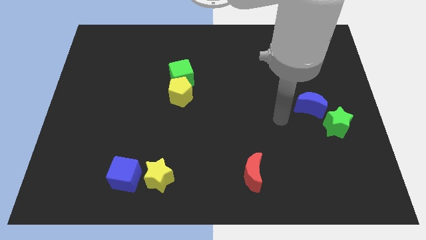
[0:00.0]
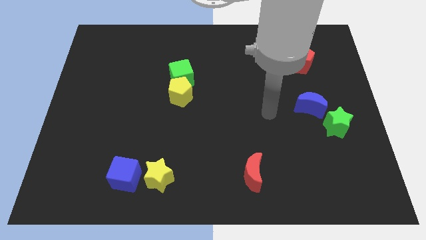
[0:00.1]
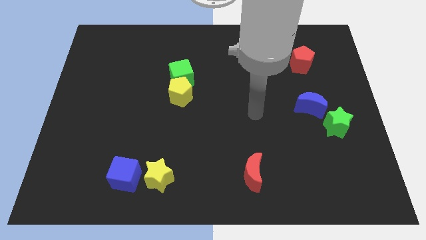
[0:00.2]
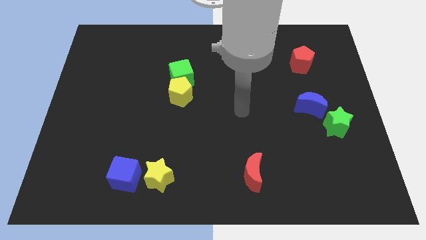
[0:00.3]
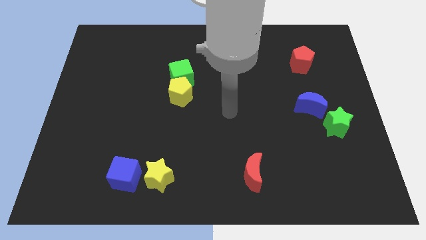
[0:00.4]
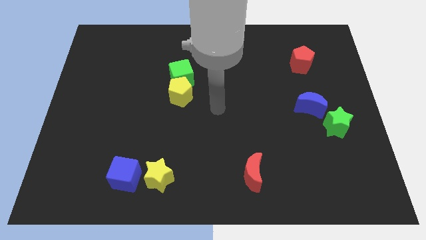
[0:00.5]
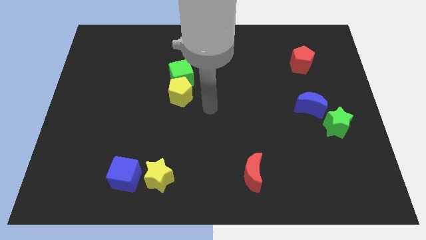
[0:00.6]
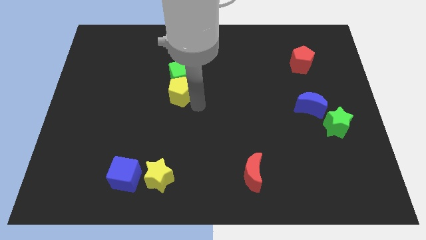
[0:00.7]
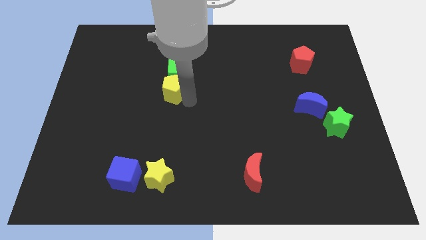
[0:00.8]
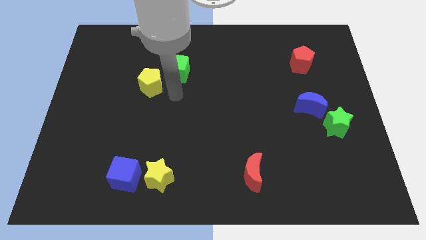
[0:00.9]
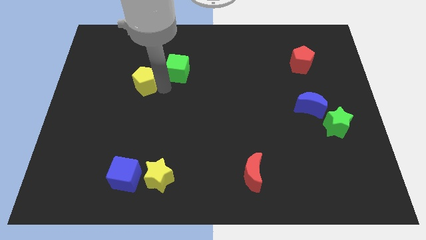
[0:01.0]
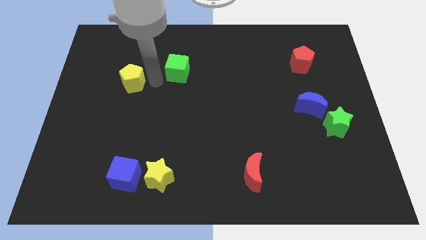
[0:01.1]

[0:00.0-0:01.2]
separate the green cube from the yellow pentagon

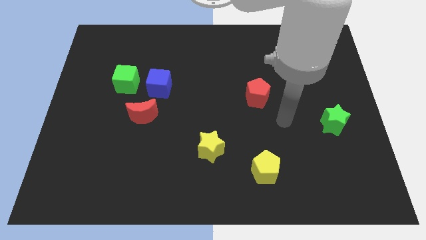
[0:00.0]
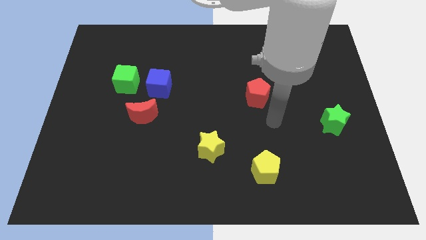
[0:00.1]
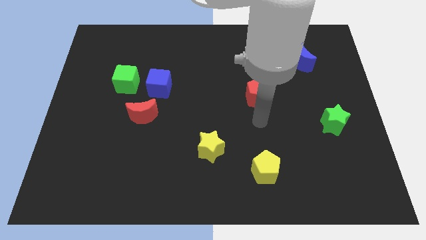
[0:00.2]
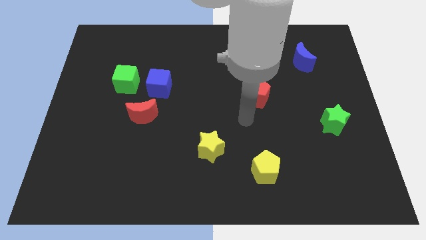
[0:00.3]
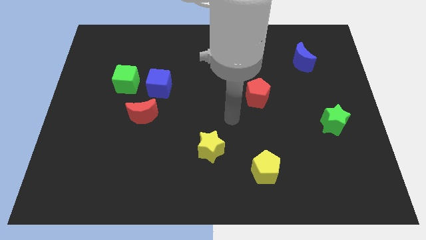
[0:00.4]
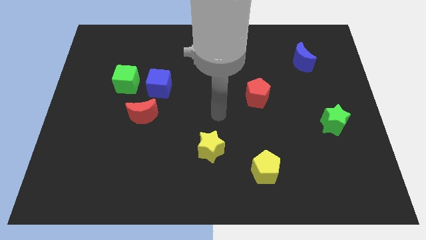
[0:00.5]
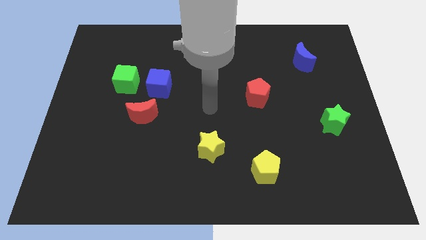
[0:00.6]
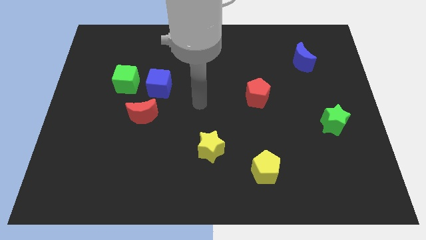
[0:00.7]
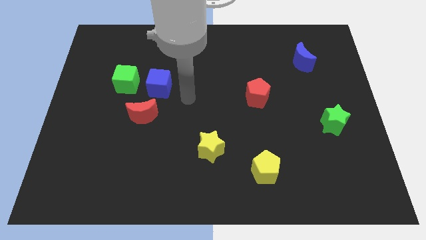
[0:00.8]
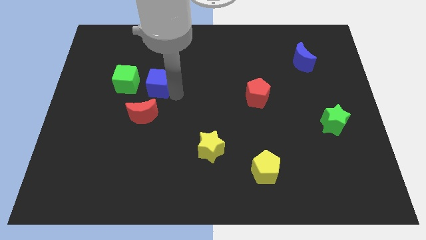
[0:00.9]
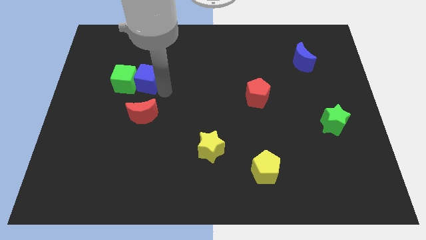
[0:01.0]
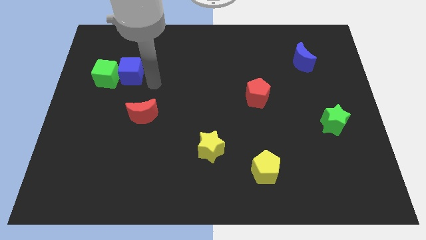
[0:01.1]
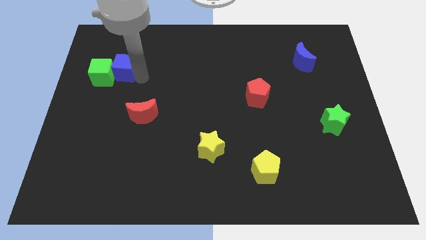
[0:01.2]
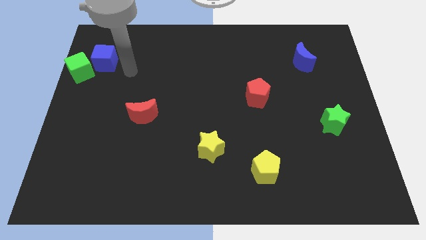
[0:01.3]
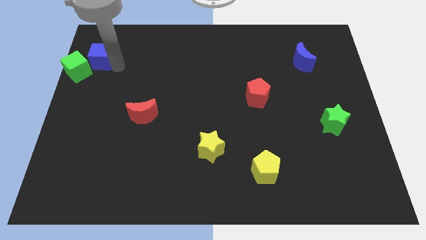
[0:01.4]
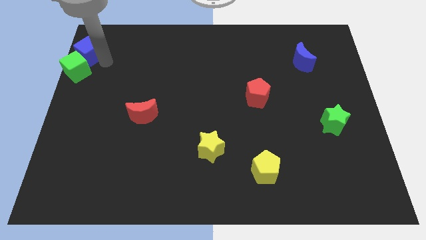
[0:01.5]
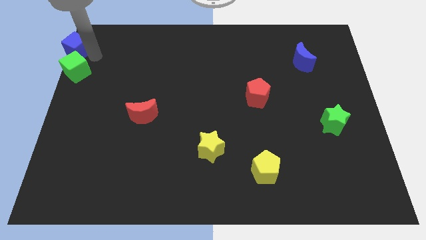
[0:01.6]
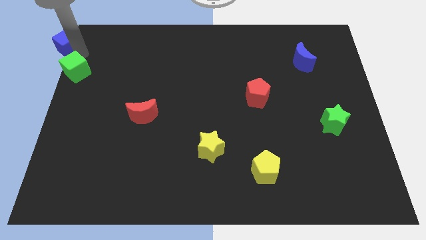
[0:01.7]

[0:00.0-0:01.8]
separate the green cube from the blue cube

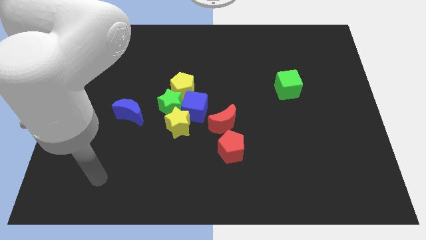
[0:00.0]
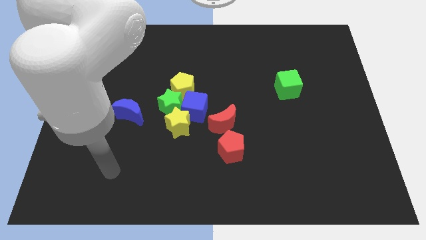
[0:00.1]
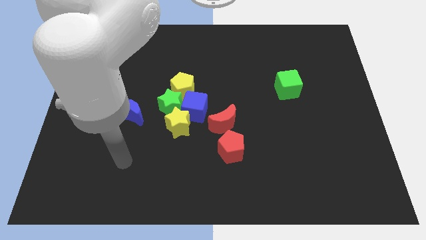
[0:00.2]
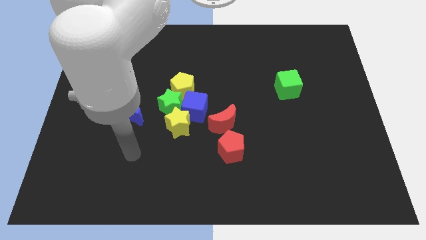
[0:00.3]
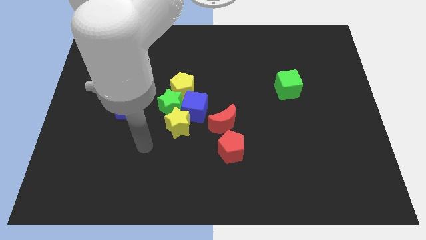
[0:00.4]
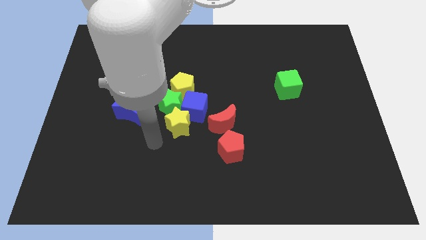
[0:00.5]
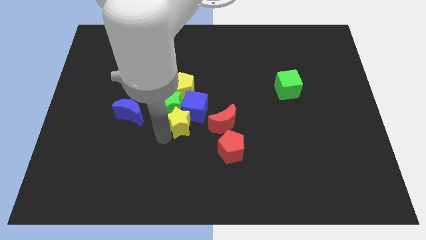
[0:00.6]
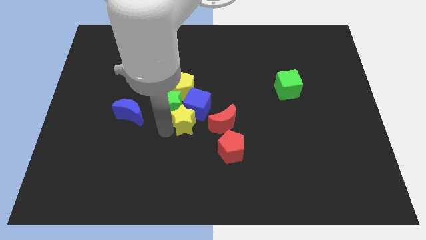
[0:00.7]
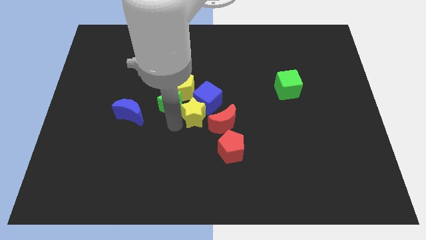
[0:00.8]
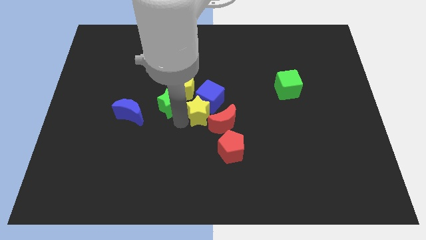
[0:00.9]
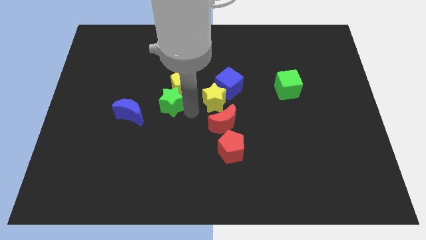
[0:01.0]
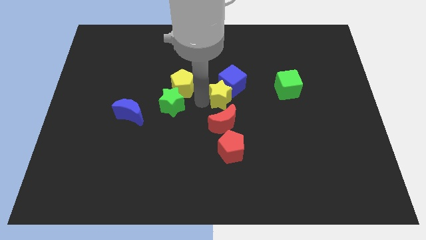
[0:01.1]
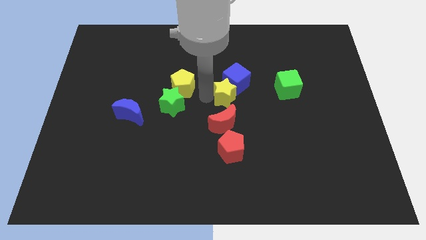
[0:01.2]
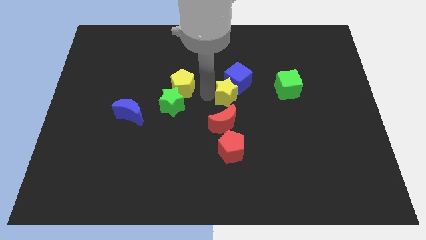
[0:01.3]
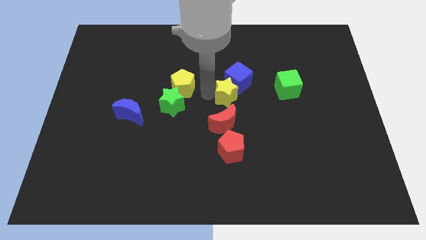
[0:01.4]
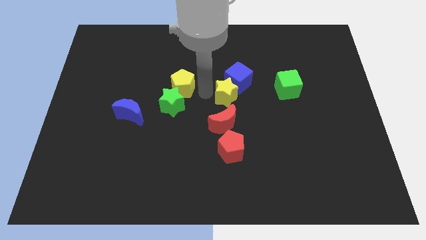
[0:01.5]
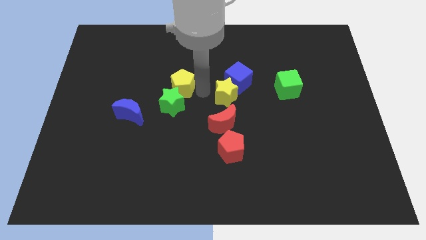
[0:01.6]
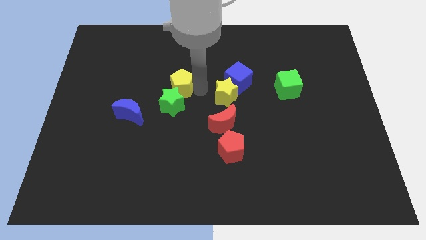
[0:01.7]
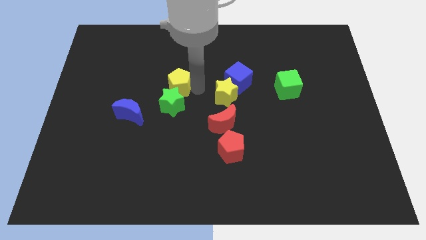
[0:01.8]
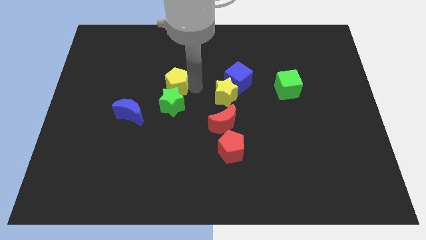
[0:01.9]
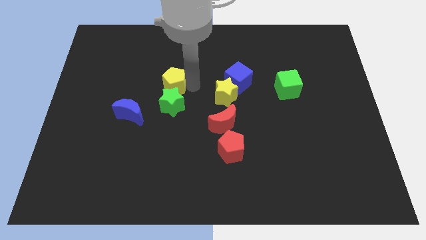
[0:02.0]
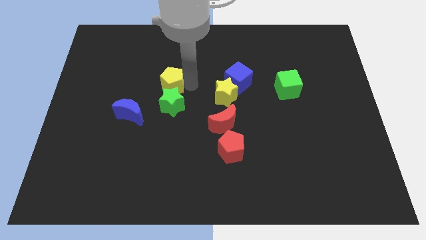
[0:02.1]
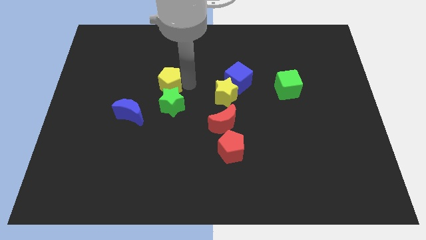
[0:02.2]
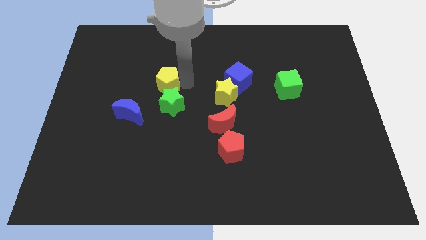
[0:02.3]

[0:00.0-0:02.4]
move the yellow pentagon away from the green star and blue cube

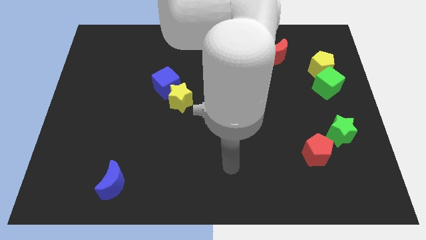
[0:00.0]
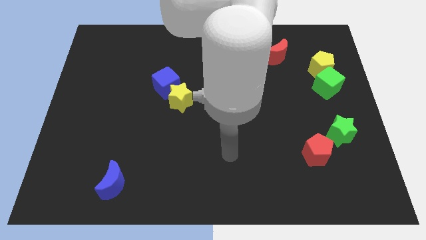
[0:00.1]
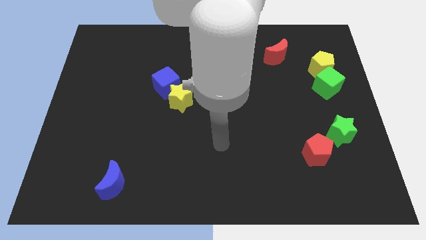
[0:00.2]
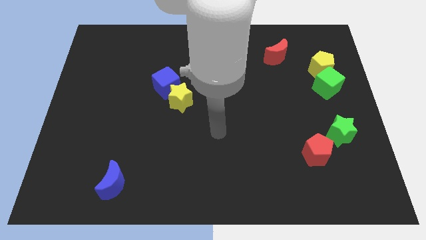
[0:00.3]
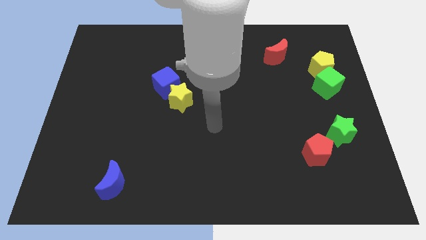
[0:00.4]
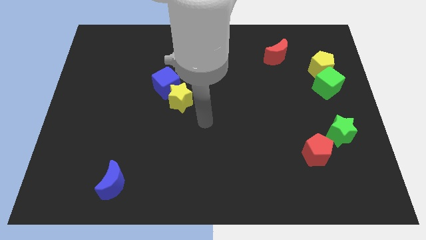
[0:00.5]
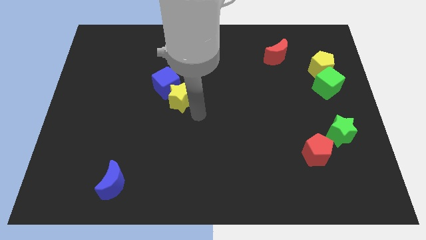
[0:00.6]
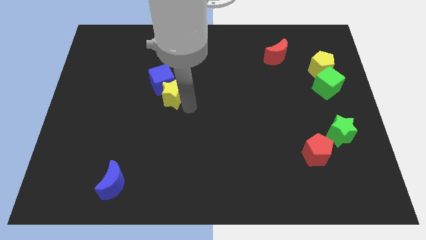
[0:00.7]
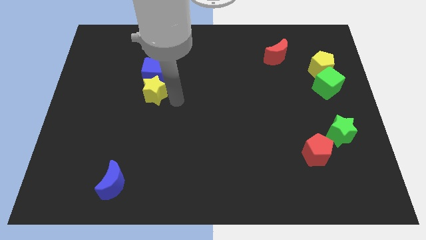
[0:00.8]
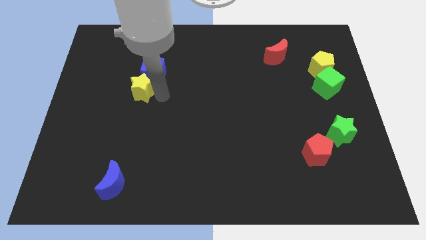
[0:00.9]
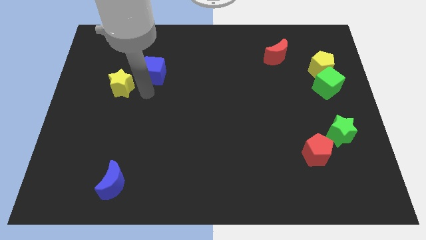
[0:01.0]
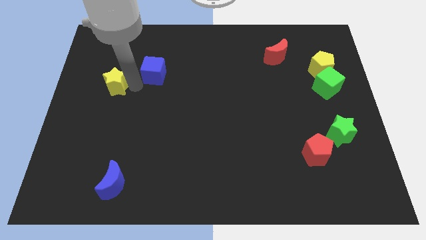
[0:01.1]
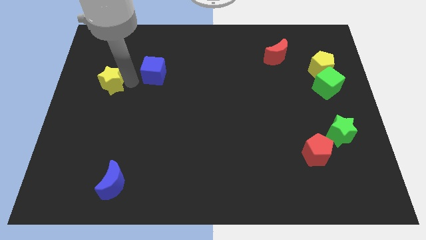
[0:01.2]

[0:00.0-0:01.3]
pull the blue cube apart from the yellow star

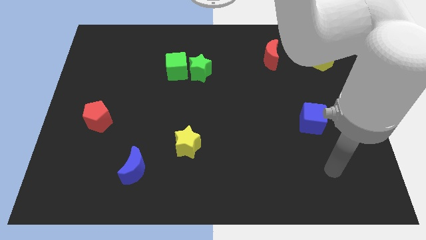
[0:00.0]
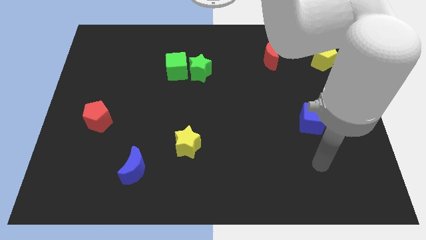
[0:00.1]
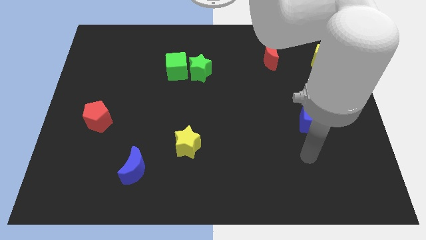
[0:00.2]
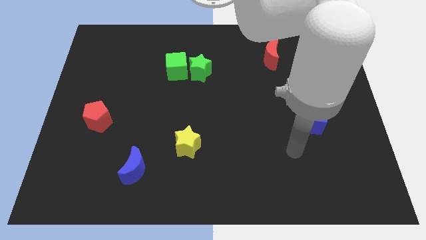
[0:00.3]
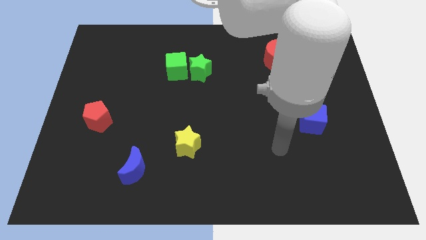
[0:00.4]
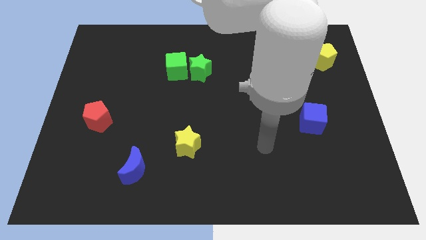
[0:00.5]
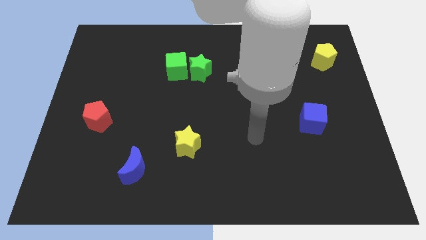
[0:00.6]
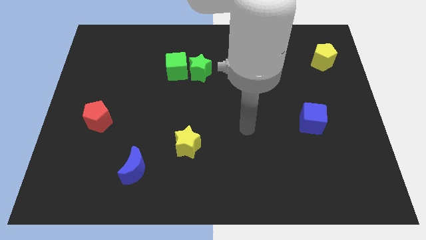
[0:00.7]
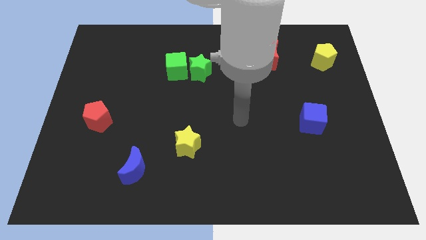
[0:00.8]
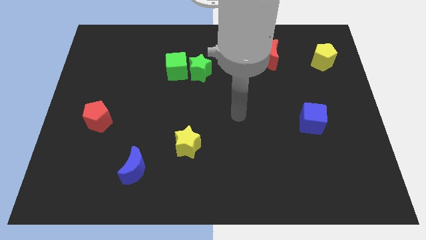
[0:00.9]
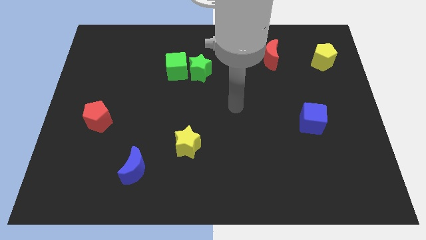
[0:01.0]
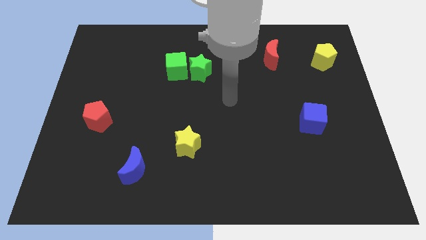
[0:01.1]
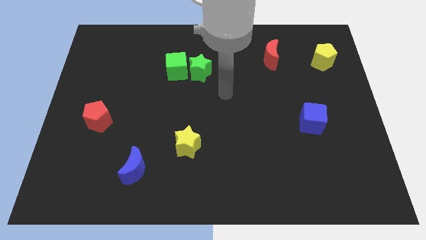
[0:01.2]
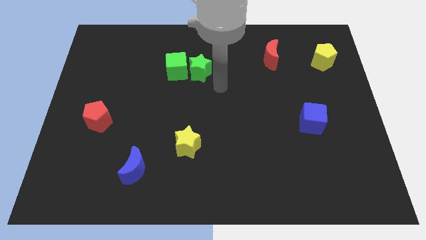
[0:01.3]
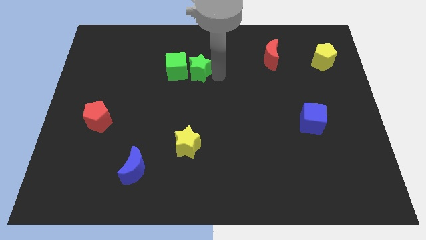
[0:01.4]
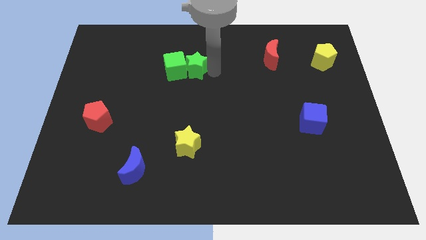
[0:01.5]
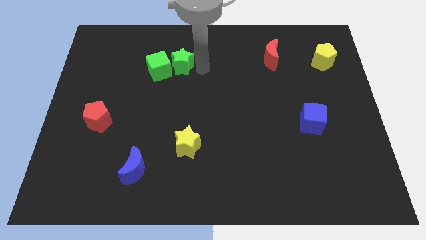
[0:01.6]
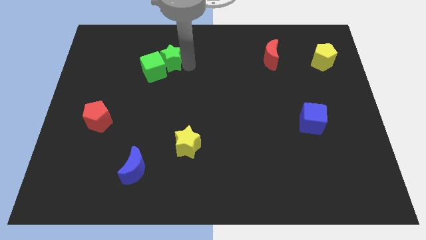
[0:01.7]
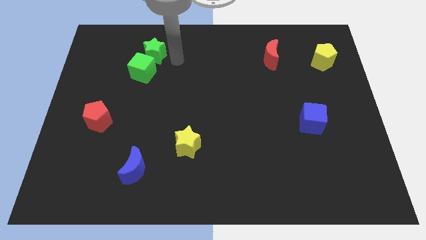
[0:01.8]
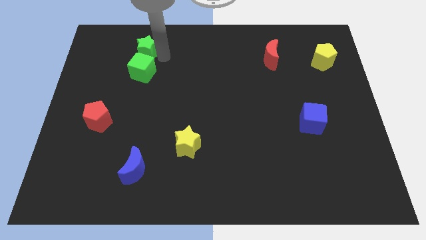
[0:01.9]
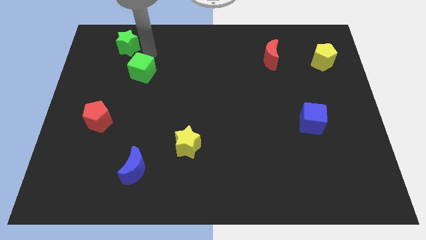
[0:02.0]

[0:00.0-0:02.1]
pull the green cube apart from the green star

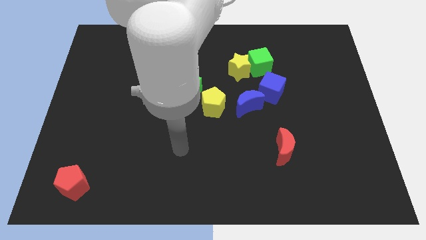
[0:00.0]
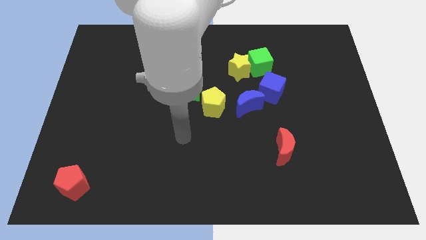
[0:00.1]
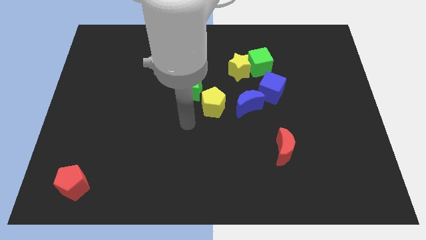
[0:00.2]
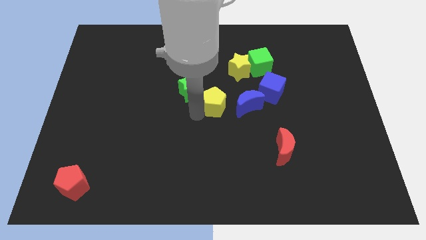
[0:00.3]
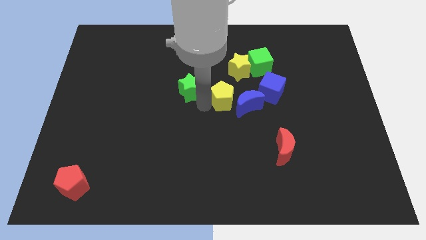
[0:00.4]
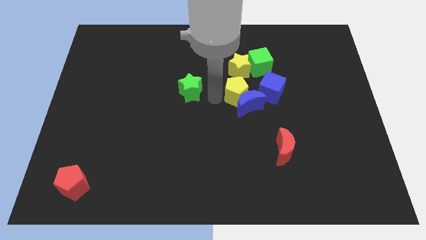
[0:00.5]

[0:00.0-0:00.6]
move the green star away from the yellow pentagon
